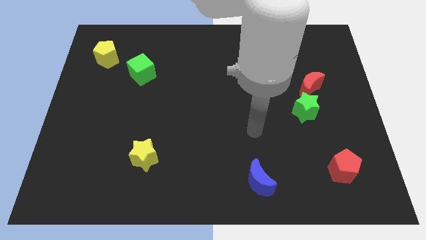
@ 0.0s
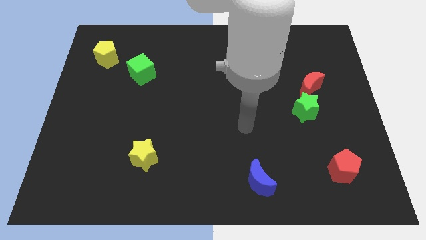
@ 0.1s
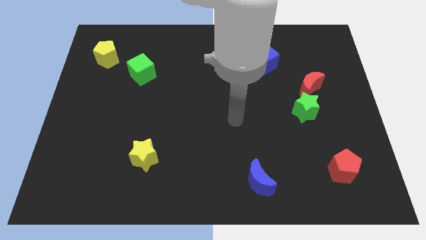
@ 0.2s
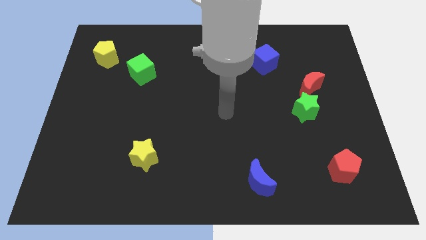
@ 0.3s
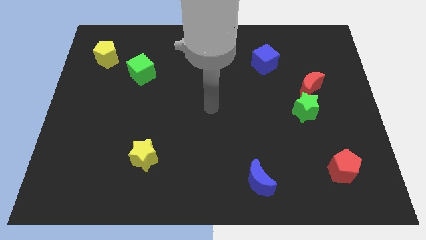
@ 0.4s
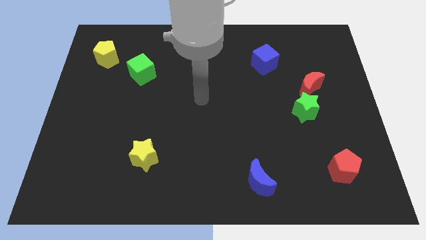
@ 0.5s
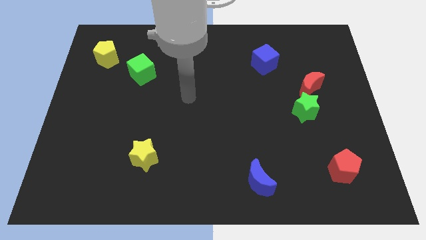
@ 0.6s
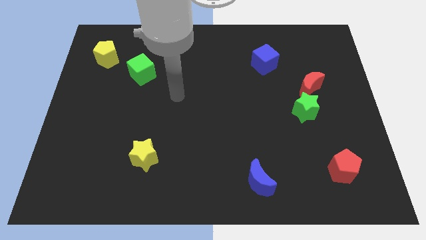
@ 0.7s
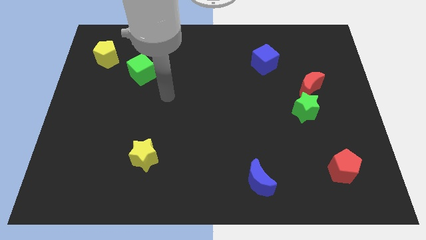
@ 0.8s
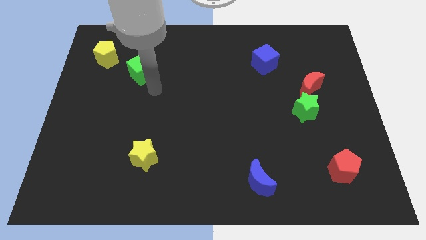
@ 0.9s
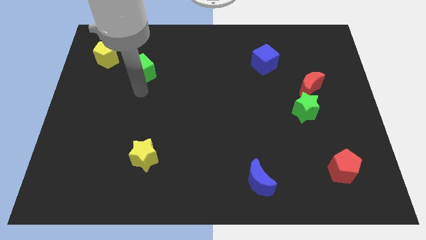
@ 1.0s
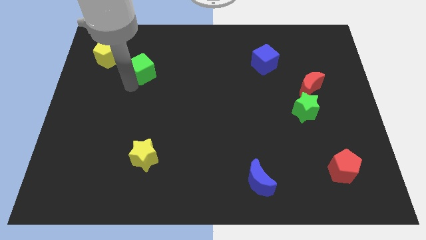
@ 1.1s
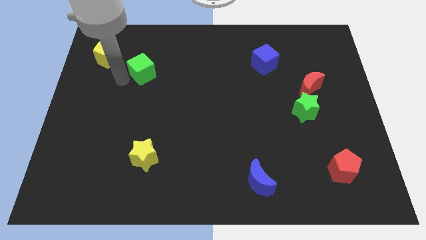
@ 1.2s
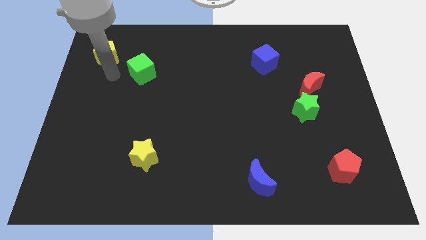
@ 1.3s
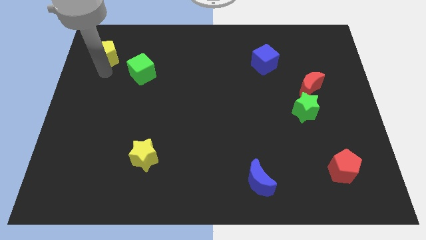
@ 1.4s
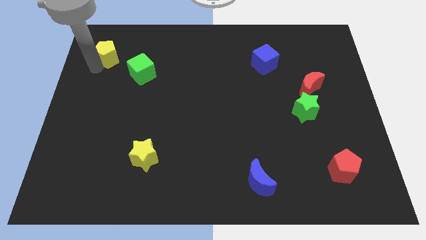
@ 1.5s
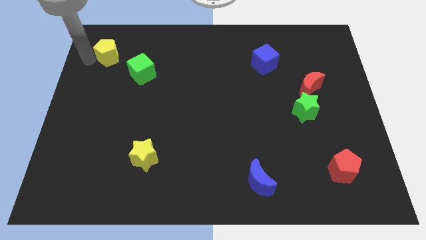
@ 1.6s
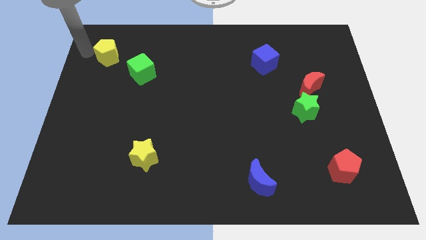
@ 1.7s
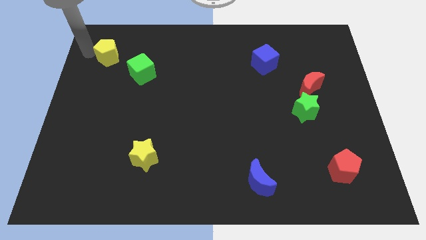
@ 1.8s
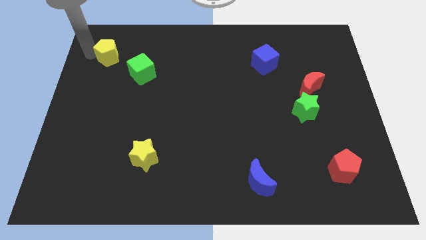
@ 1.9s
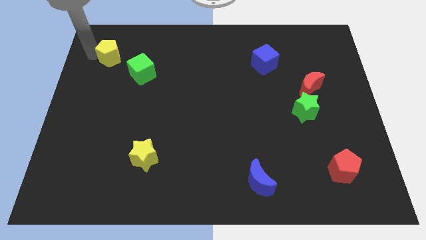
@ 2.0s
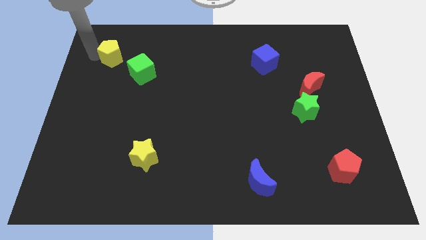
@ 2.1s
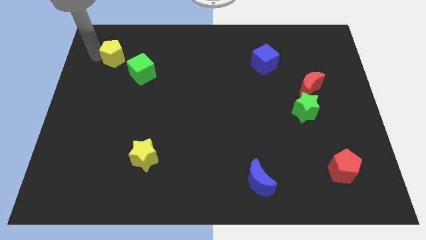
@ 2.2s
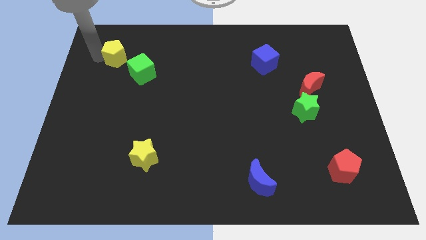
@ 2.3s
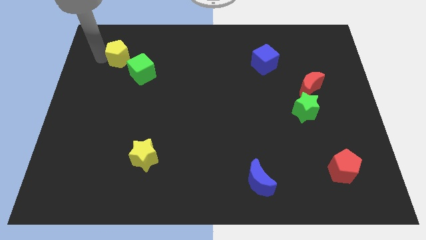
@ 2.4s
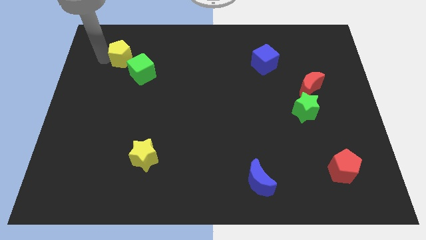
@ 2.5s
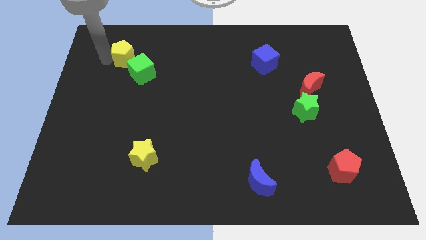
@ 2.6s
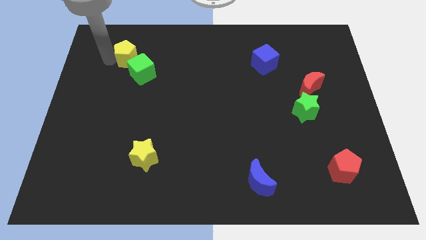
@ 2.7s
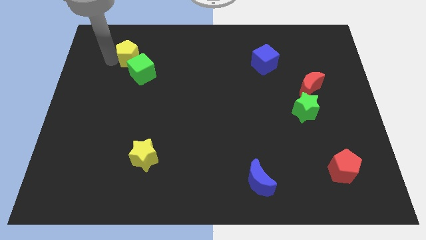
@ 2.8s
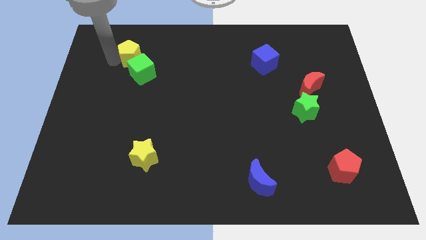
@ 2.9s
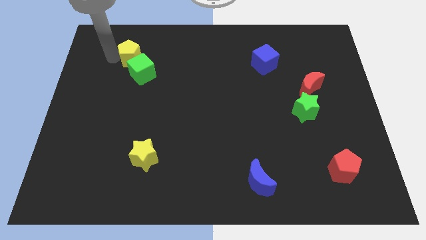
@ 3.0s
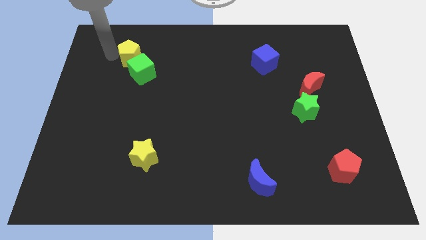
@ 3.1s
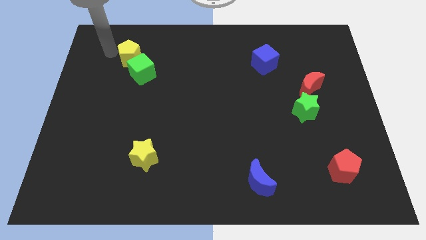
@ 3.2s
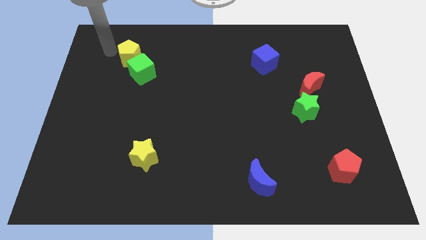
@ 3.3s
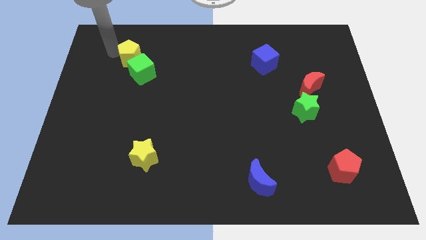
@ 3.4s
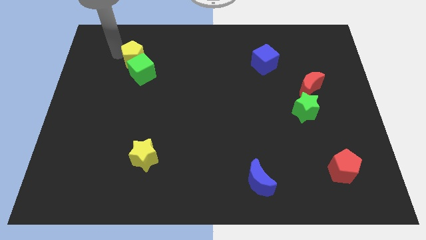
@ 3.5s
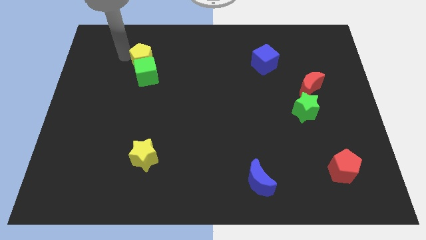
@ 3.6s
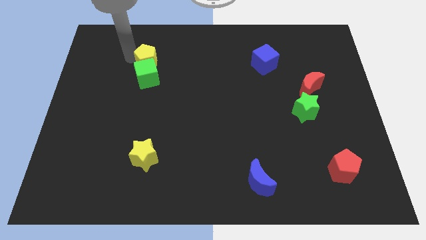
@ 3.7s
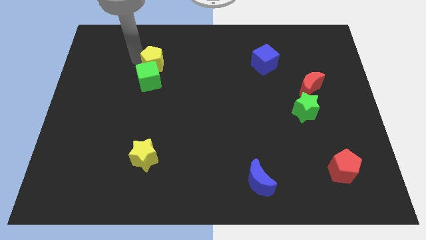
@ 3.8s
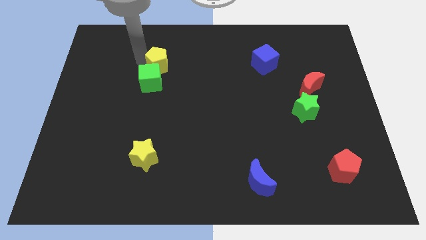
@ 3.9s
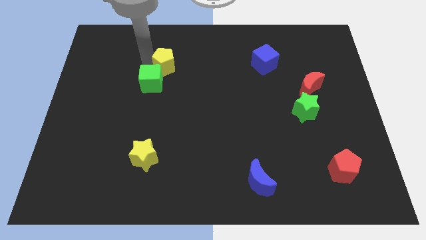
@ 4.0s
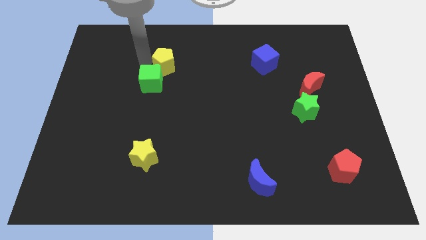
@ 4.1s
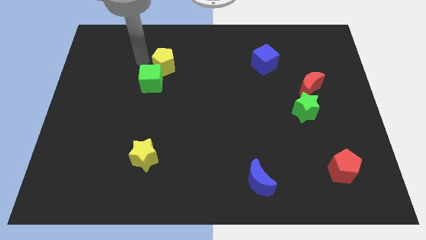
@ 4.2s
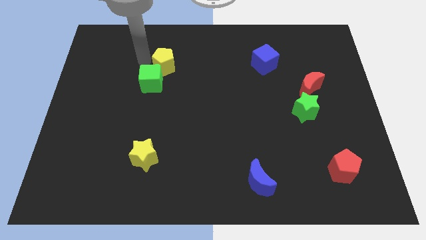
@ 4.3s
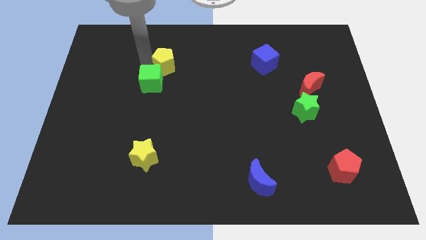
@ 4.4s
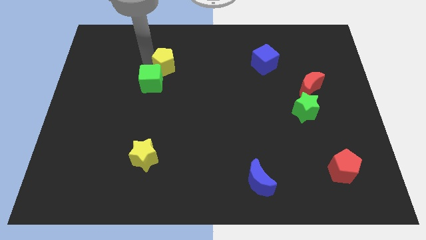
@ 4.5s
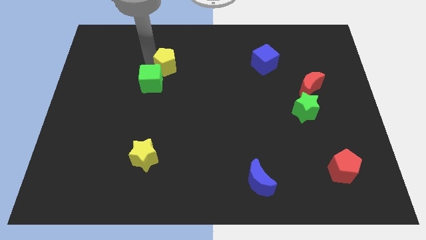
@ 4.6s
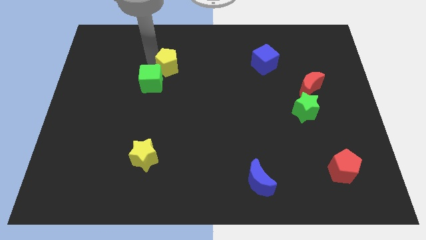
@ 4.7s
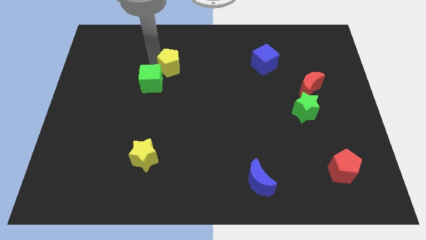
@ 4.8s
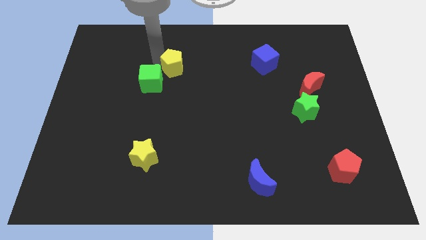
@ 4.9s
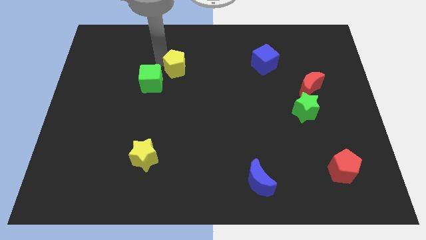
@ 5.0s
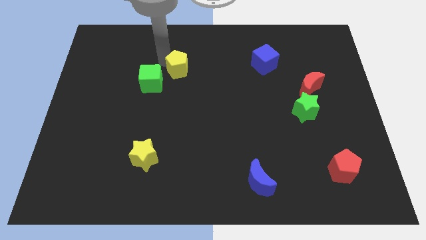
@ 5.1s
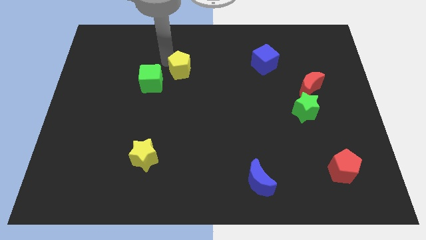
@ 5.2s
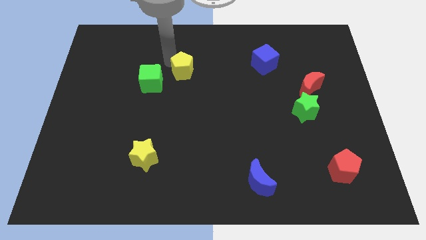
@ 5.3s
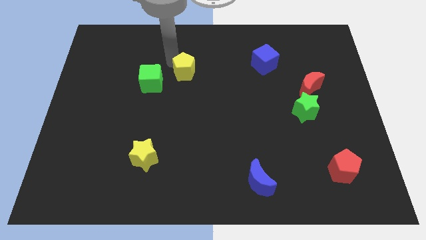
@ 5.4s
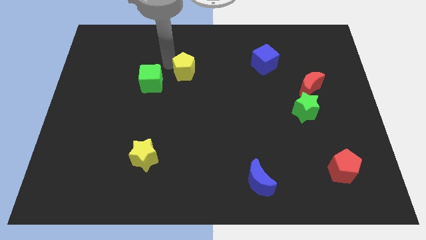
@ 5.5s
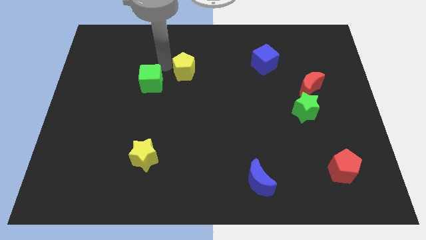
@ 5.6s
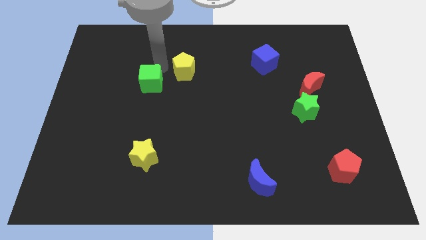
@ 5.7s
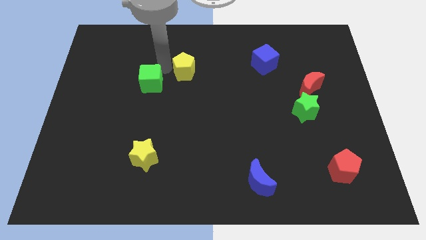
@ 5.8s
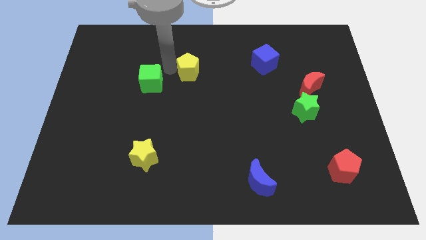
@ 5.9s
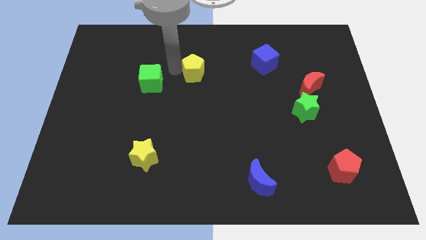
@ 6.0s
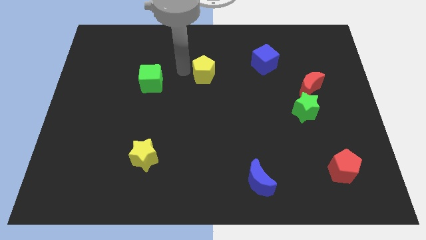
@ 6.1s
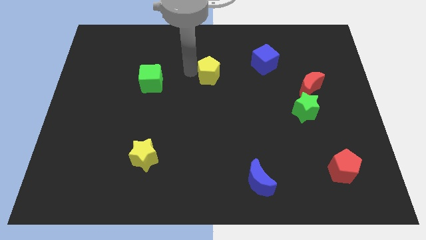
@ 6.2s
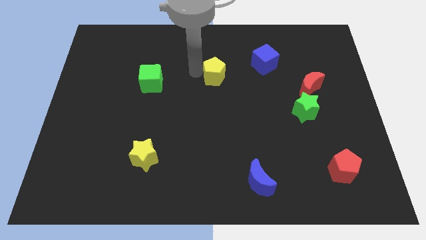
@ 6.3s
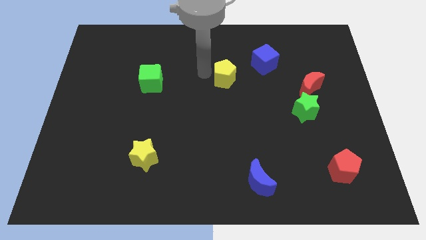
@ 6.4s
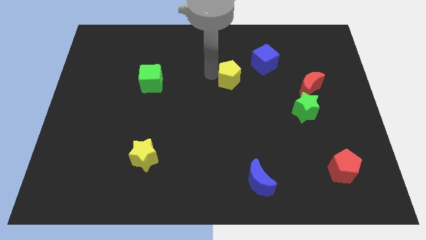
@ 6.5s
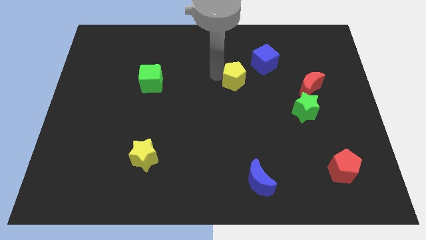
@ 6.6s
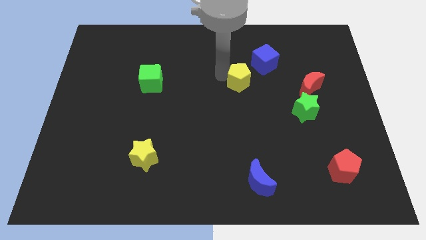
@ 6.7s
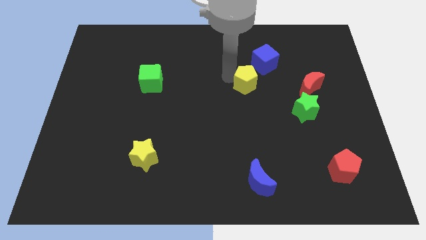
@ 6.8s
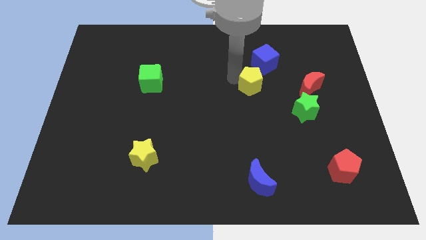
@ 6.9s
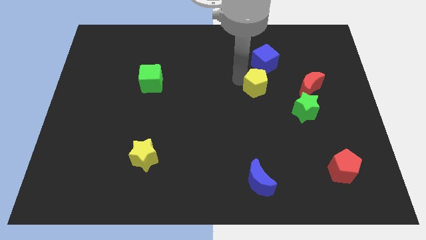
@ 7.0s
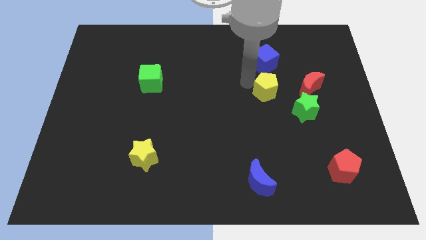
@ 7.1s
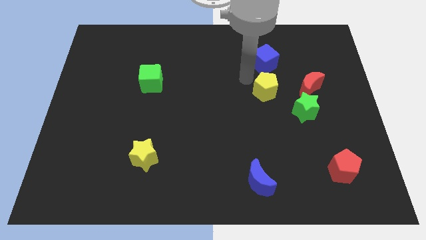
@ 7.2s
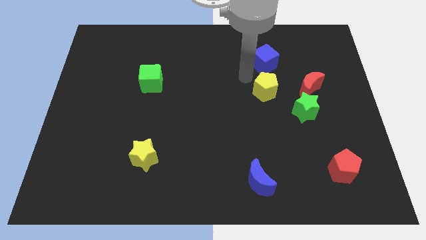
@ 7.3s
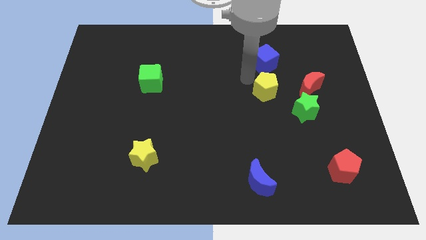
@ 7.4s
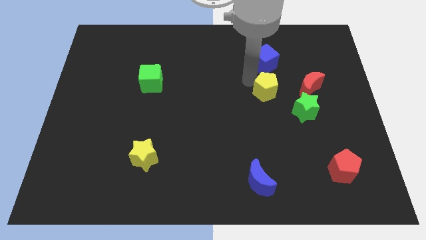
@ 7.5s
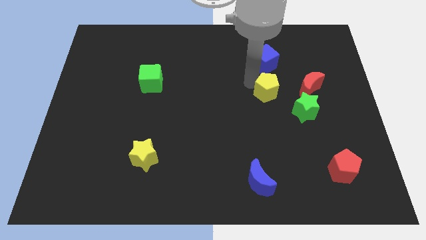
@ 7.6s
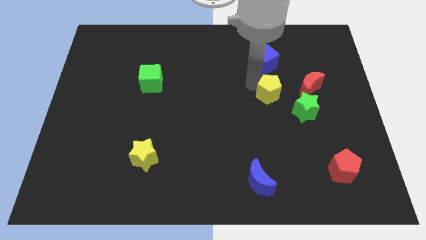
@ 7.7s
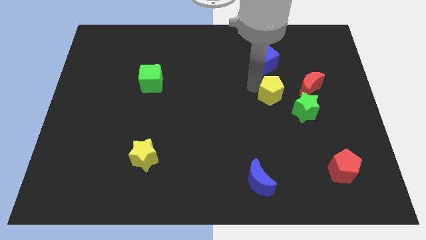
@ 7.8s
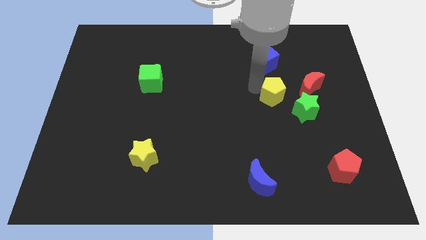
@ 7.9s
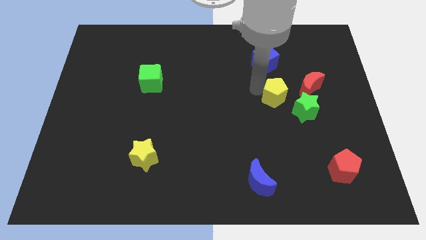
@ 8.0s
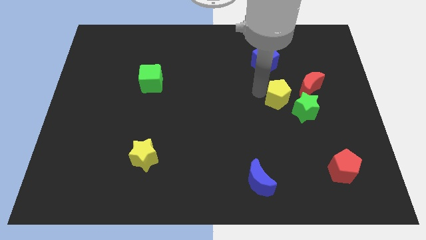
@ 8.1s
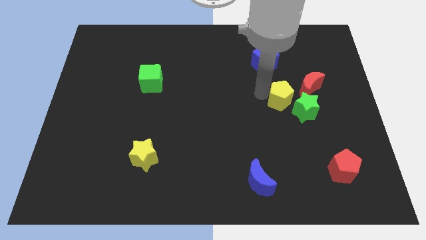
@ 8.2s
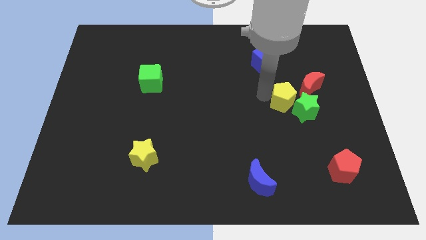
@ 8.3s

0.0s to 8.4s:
put the yellow pentagon to the green star
